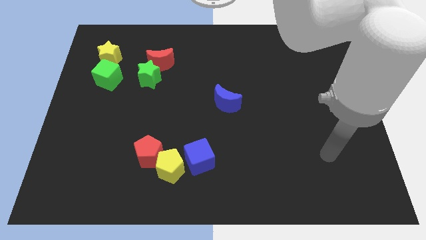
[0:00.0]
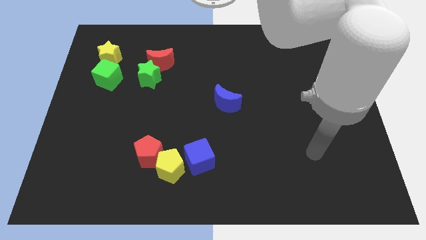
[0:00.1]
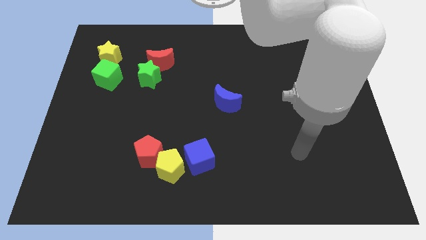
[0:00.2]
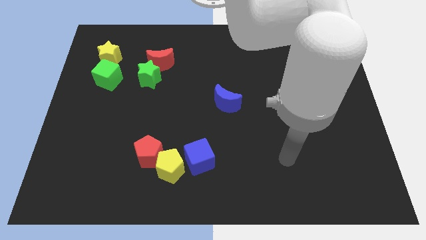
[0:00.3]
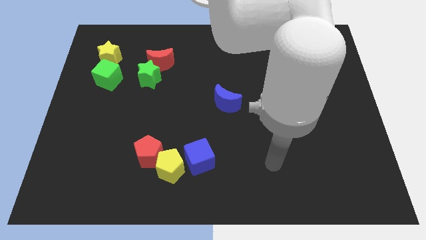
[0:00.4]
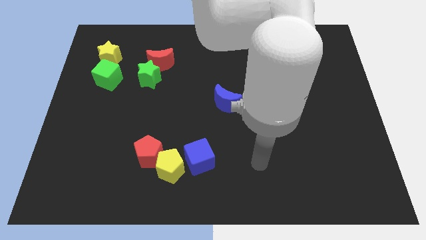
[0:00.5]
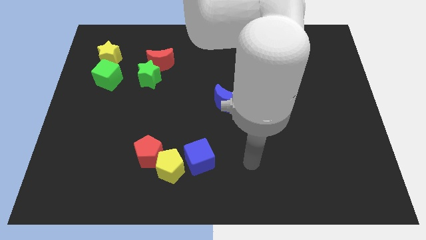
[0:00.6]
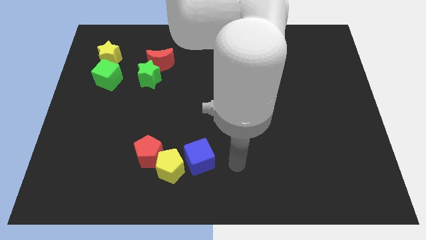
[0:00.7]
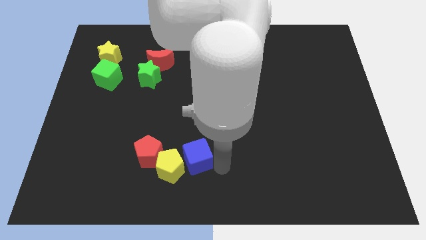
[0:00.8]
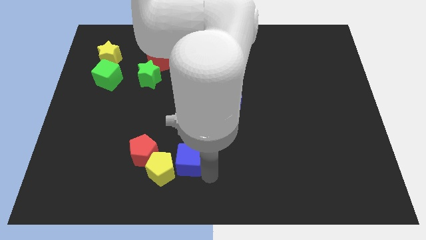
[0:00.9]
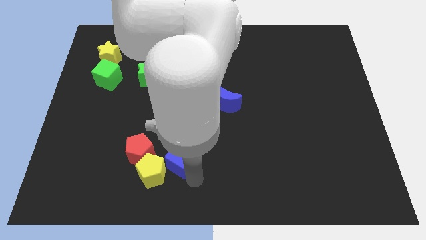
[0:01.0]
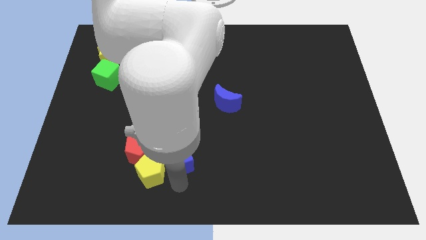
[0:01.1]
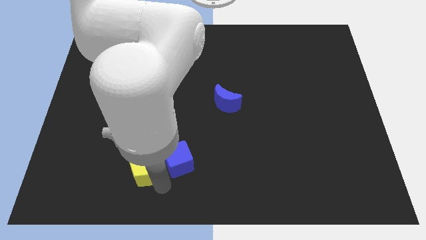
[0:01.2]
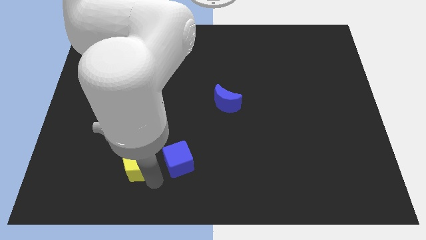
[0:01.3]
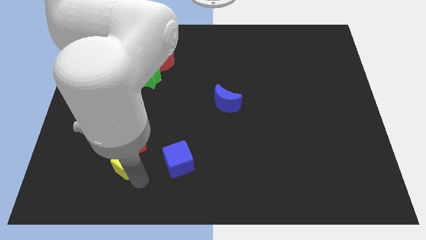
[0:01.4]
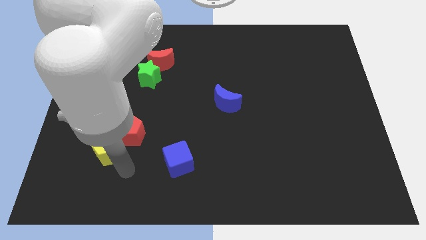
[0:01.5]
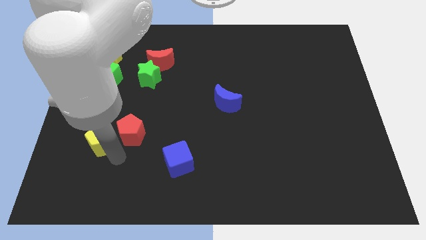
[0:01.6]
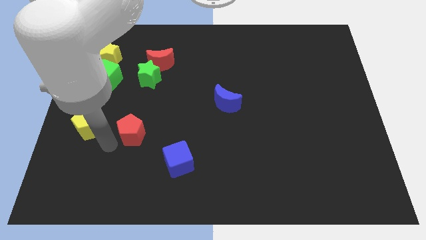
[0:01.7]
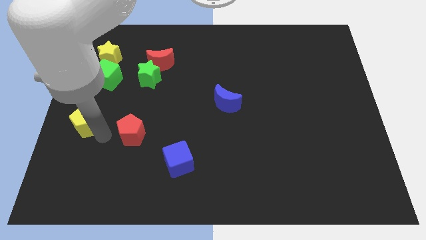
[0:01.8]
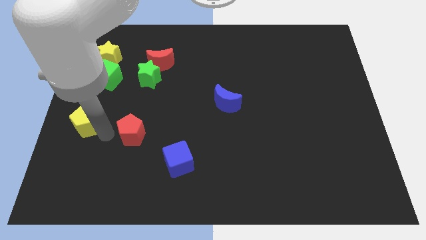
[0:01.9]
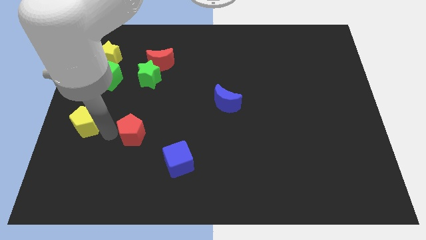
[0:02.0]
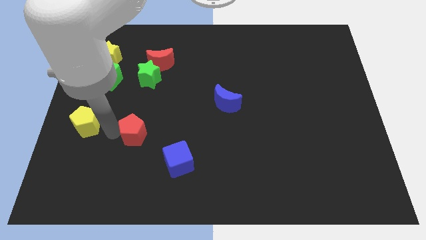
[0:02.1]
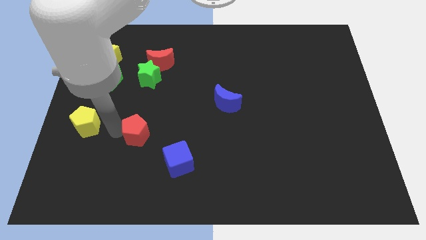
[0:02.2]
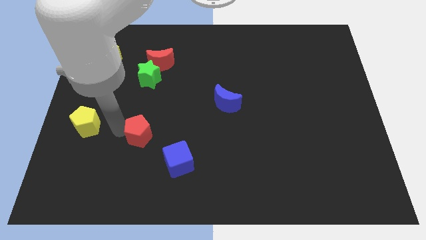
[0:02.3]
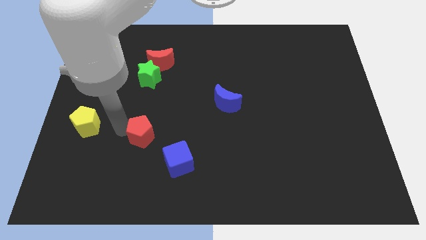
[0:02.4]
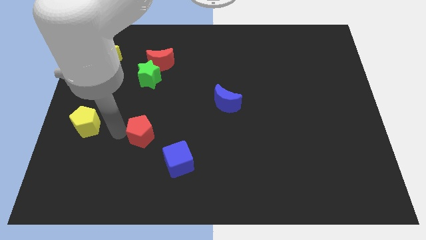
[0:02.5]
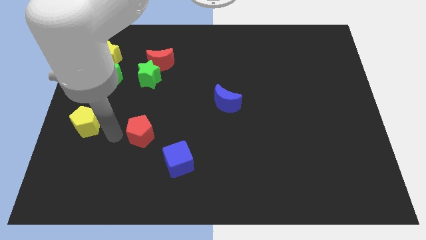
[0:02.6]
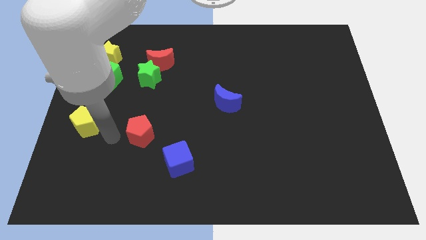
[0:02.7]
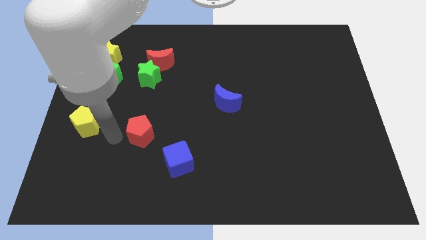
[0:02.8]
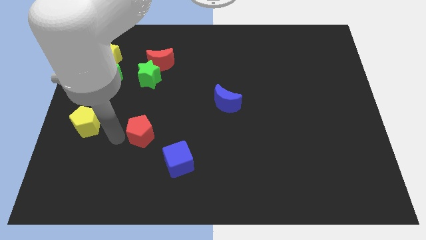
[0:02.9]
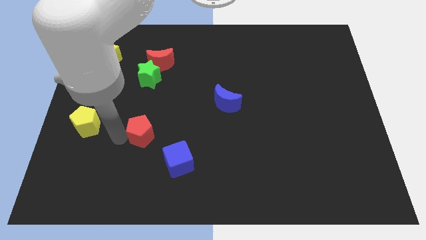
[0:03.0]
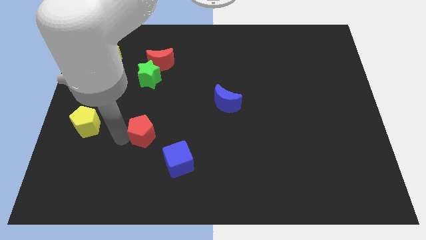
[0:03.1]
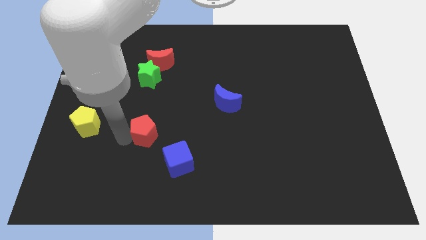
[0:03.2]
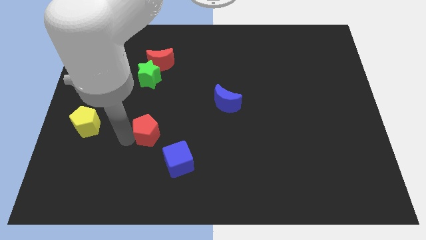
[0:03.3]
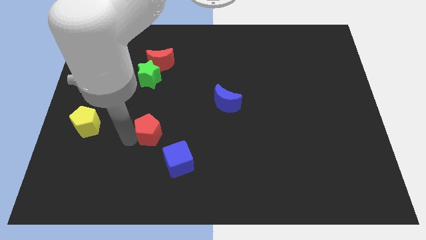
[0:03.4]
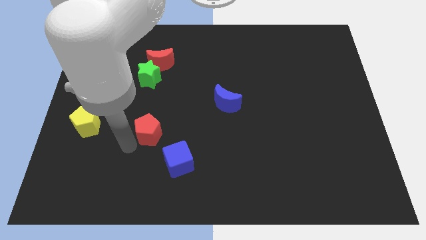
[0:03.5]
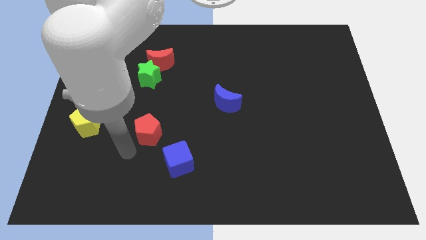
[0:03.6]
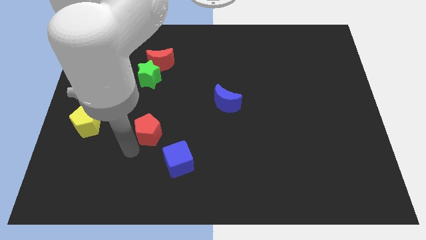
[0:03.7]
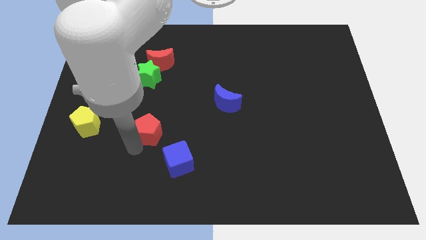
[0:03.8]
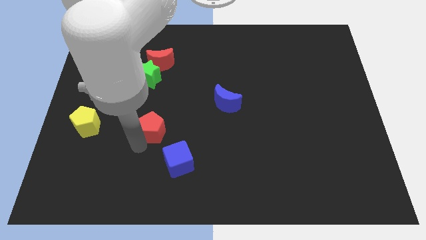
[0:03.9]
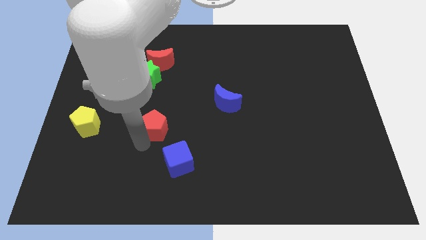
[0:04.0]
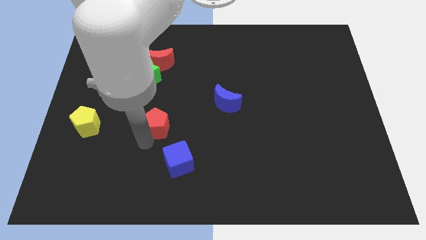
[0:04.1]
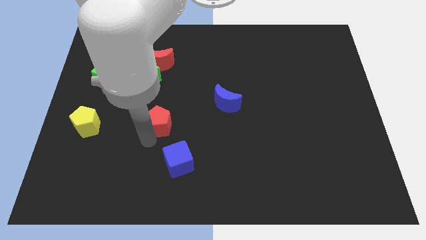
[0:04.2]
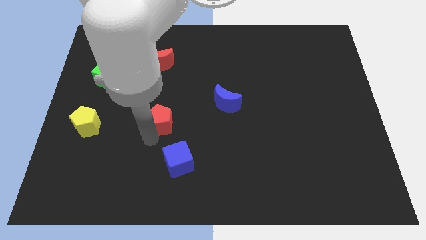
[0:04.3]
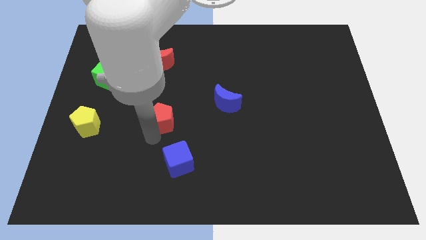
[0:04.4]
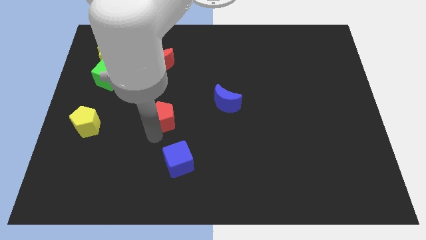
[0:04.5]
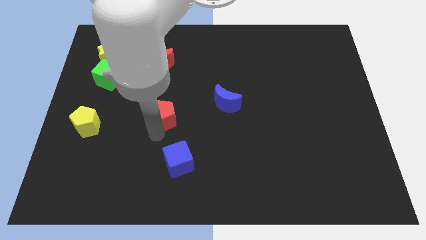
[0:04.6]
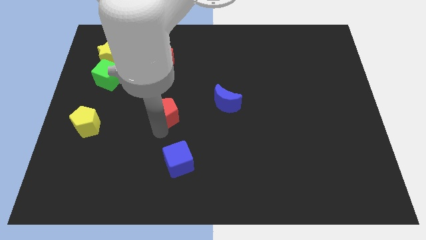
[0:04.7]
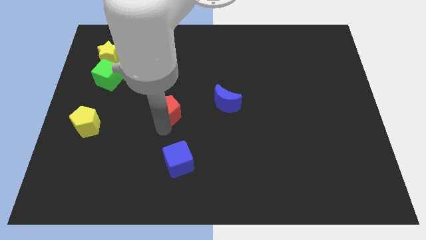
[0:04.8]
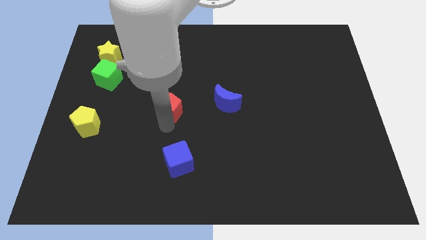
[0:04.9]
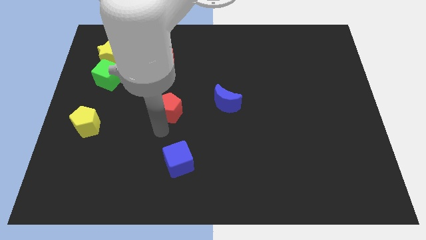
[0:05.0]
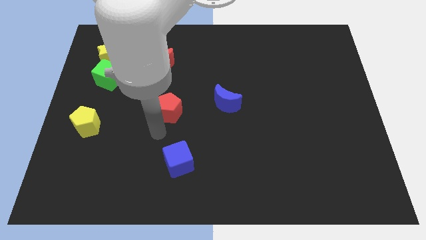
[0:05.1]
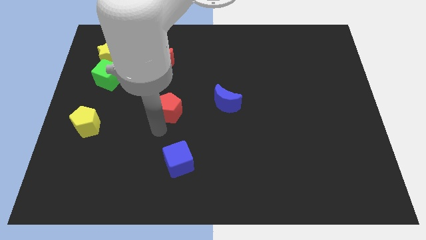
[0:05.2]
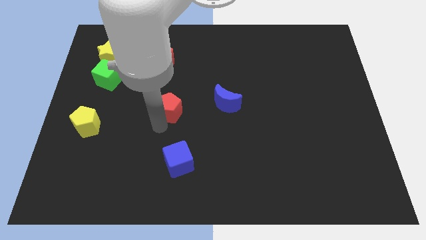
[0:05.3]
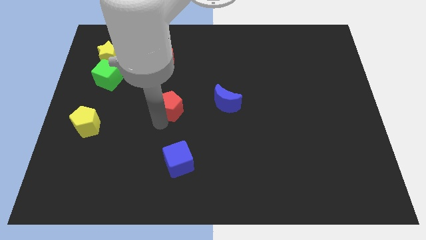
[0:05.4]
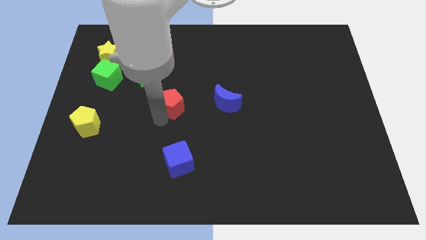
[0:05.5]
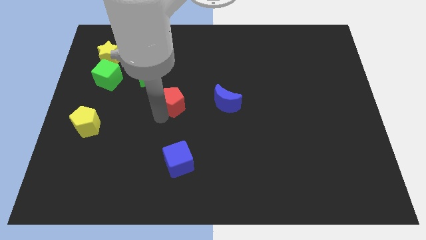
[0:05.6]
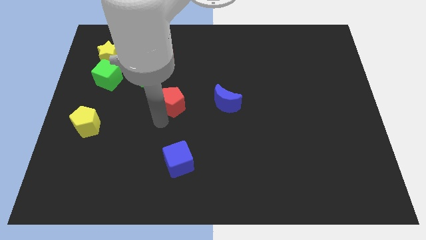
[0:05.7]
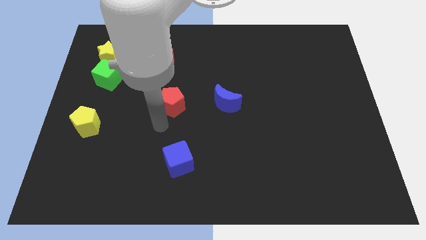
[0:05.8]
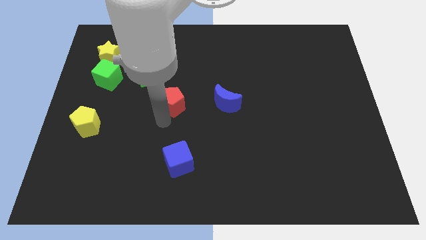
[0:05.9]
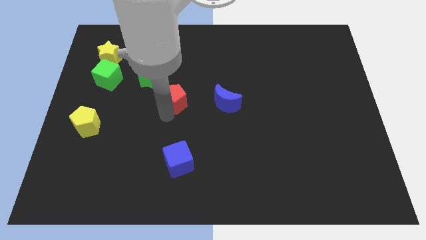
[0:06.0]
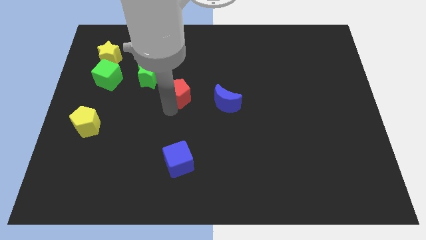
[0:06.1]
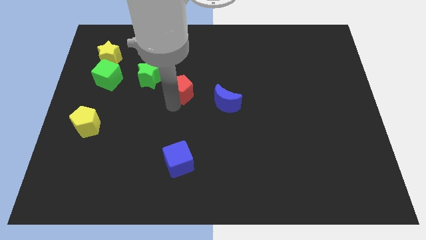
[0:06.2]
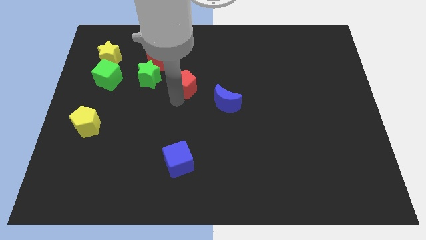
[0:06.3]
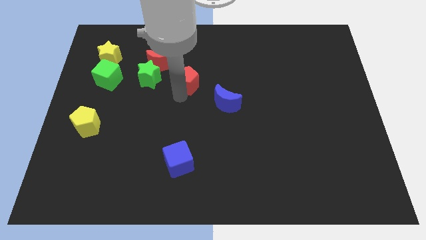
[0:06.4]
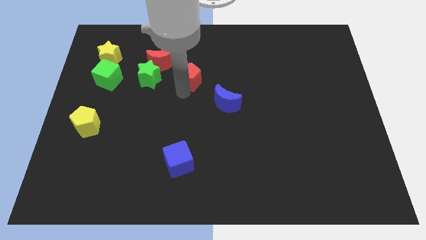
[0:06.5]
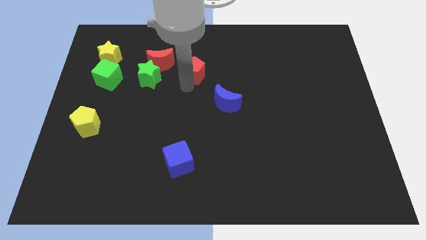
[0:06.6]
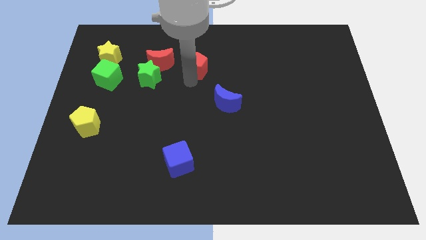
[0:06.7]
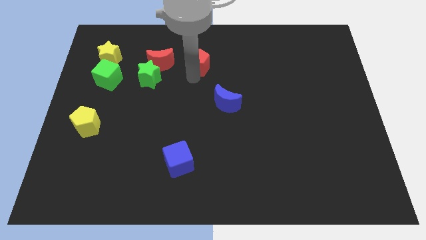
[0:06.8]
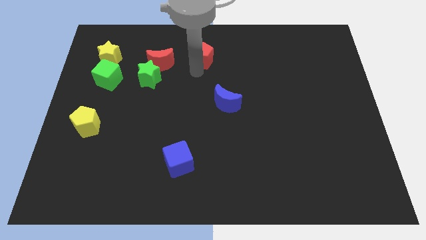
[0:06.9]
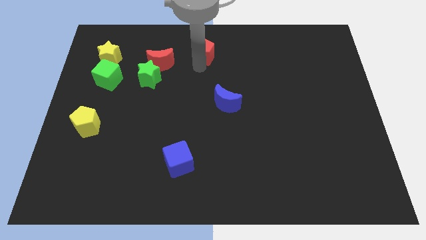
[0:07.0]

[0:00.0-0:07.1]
push the red pentagon to the top
